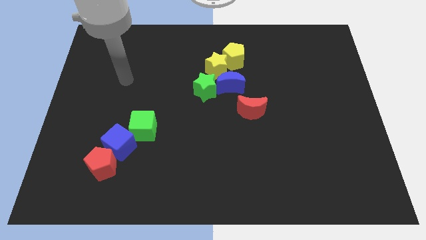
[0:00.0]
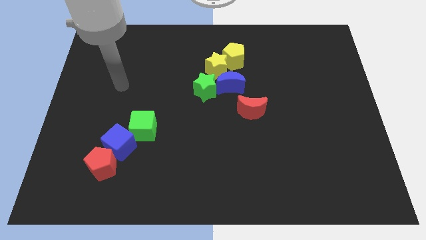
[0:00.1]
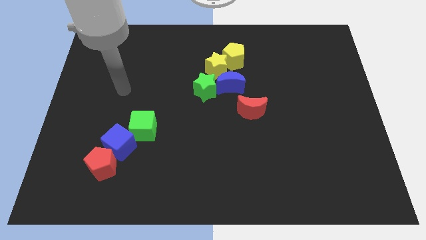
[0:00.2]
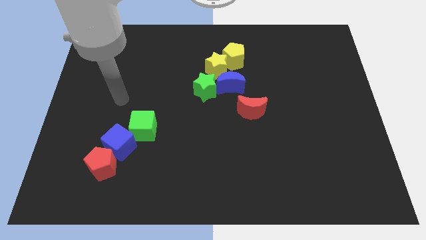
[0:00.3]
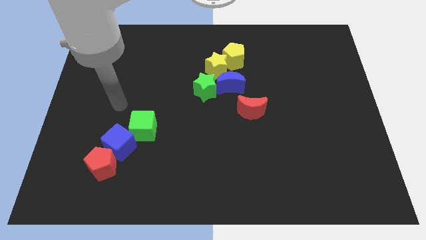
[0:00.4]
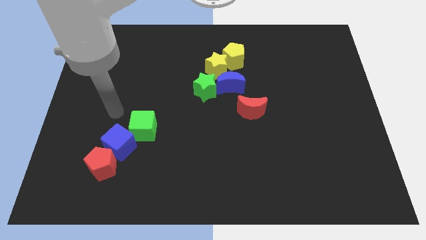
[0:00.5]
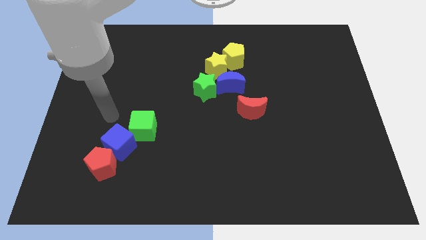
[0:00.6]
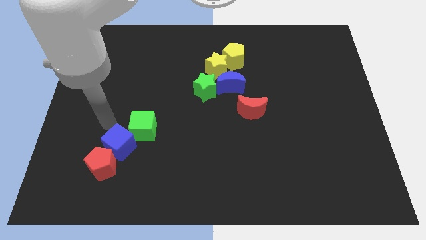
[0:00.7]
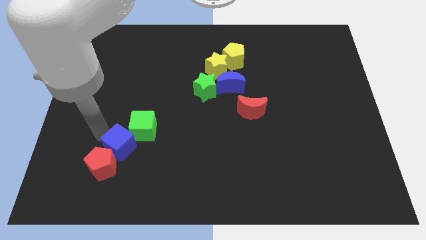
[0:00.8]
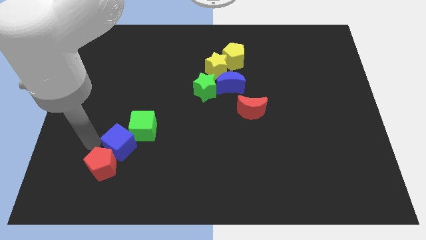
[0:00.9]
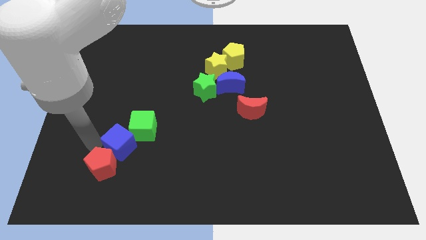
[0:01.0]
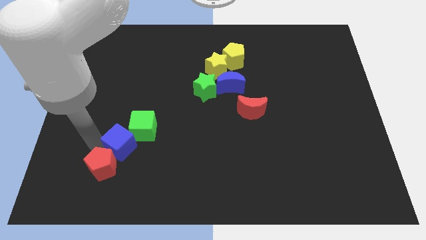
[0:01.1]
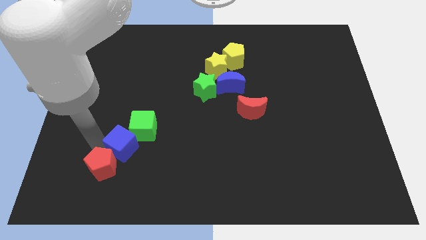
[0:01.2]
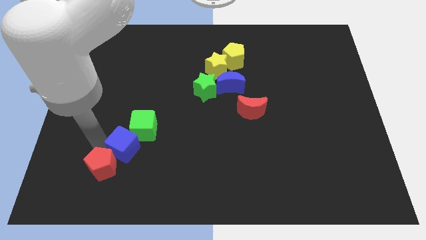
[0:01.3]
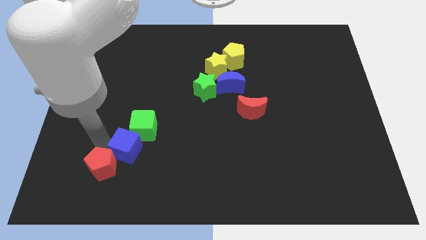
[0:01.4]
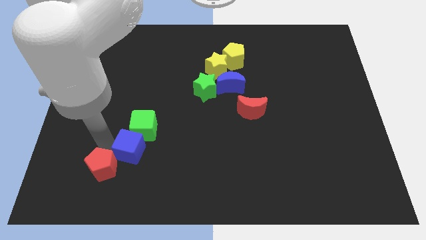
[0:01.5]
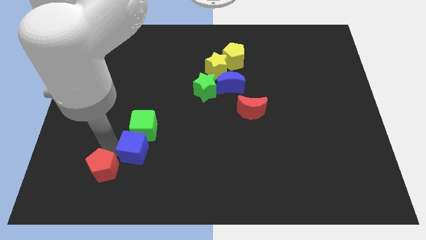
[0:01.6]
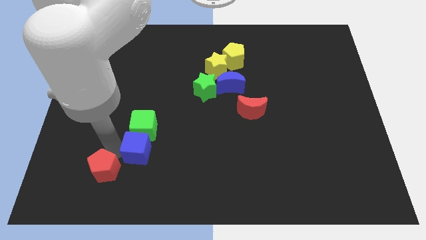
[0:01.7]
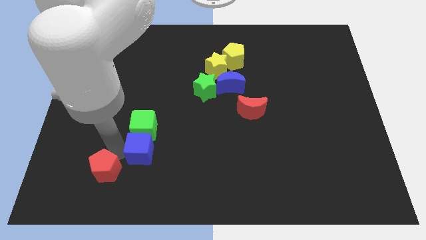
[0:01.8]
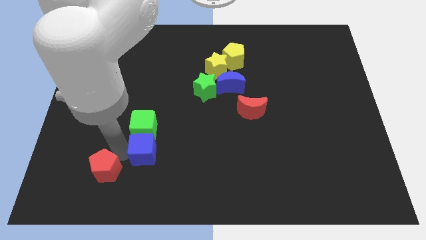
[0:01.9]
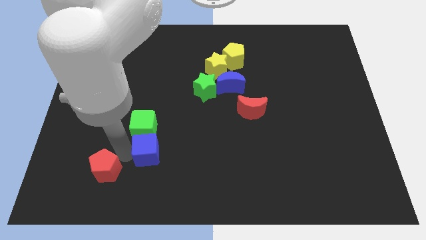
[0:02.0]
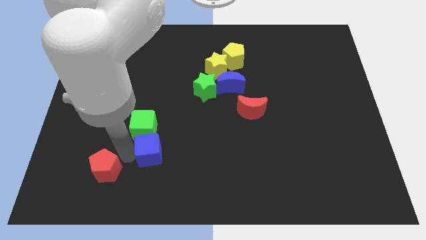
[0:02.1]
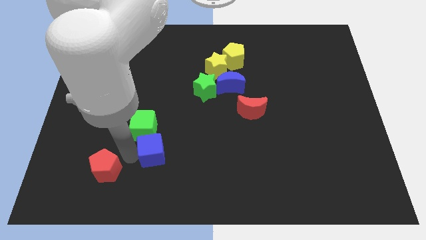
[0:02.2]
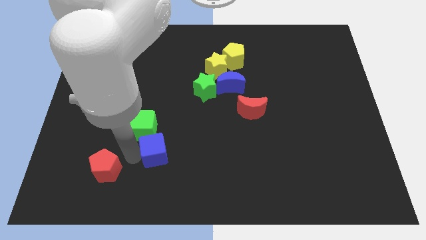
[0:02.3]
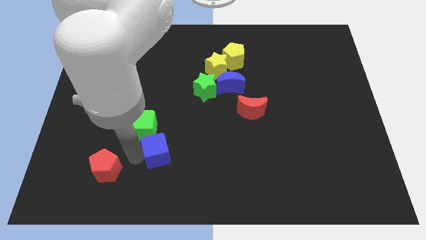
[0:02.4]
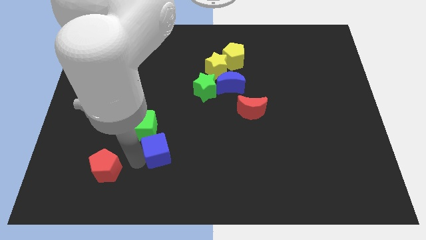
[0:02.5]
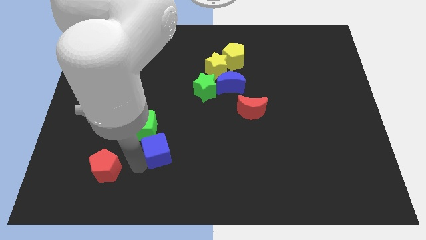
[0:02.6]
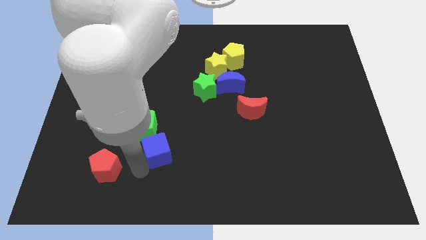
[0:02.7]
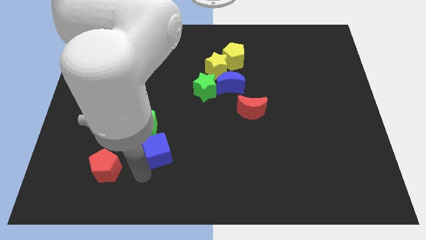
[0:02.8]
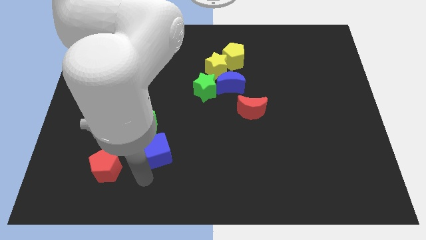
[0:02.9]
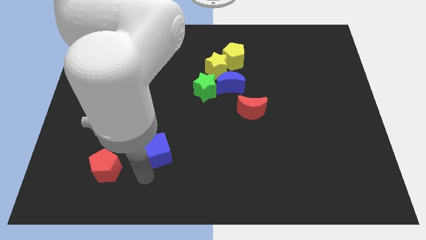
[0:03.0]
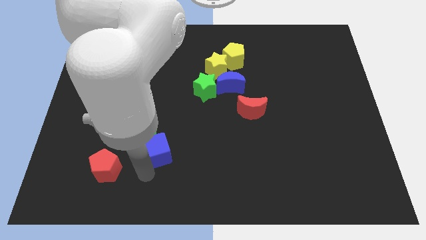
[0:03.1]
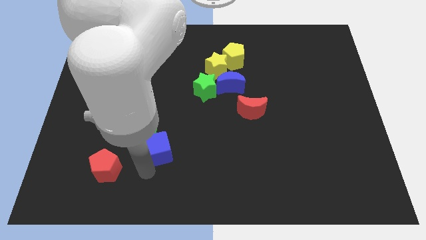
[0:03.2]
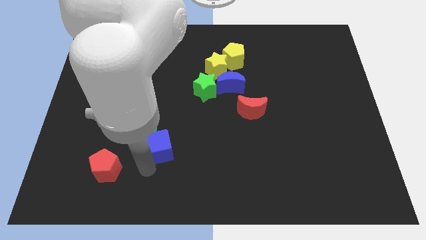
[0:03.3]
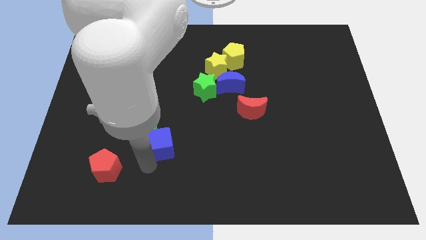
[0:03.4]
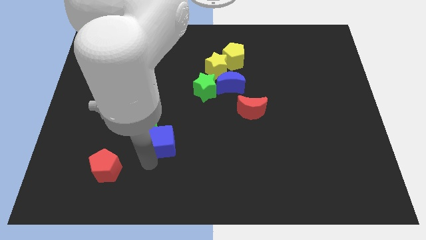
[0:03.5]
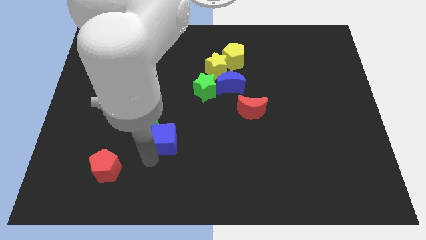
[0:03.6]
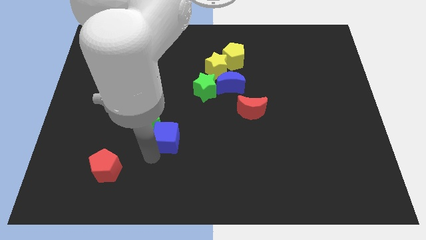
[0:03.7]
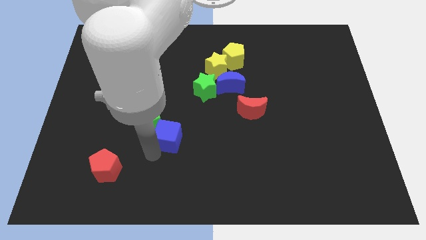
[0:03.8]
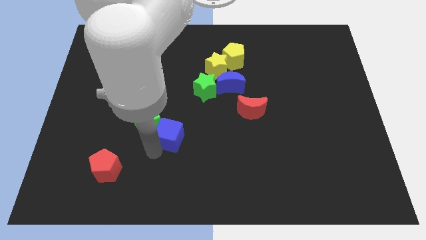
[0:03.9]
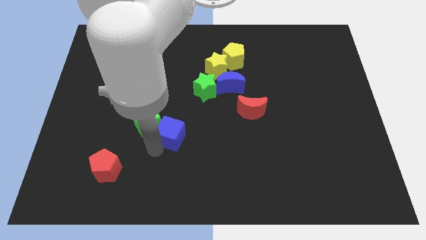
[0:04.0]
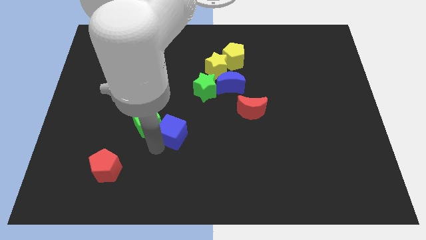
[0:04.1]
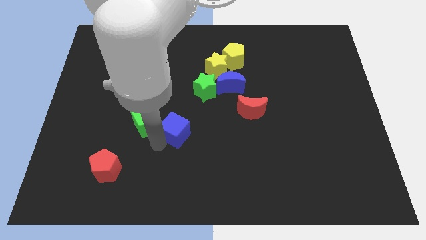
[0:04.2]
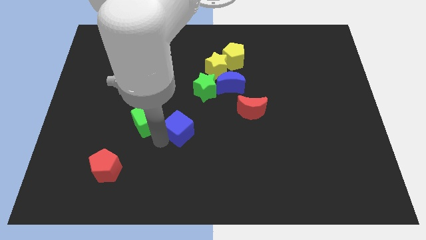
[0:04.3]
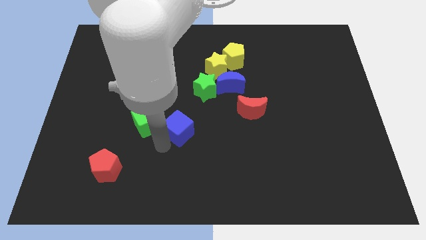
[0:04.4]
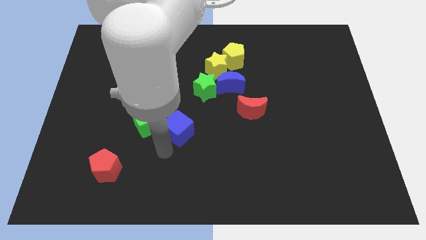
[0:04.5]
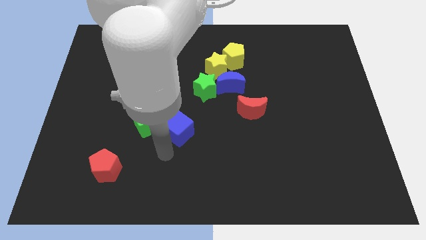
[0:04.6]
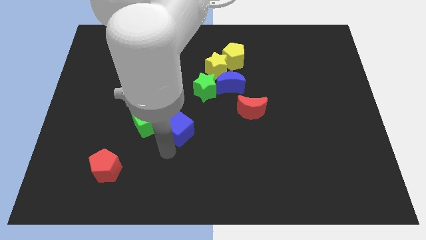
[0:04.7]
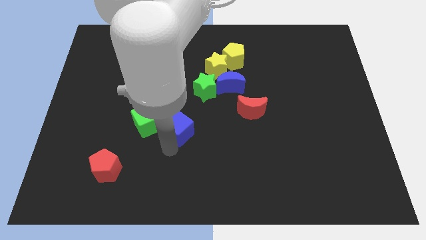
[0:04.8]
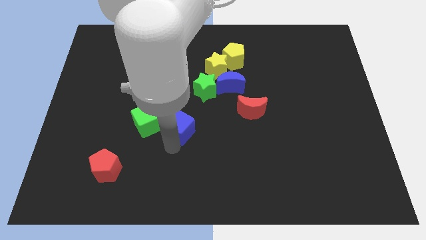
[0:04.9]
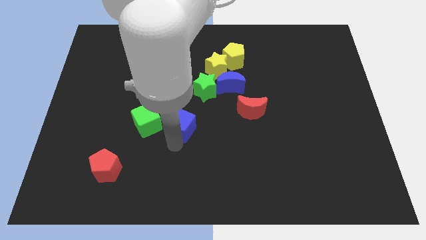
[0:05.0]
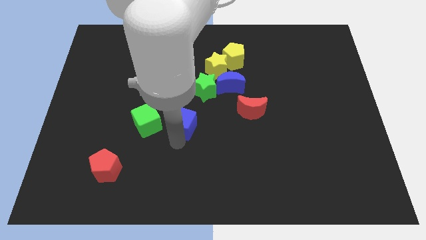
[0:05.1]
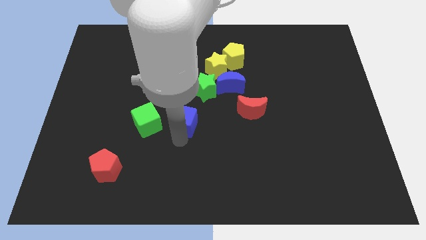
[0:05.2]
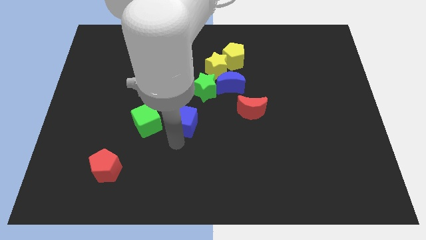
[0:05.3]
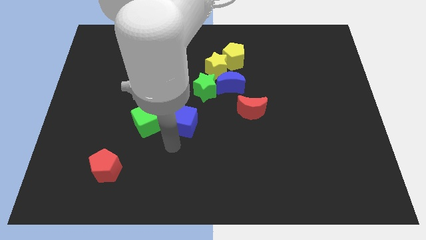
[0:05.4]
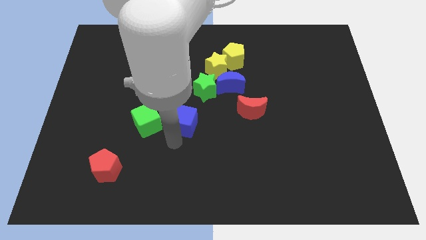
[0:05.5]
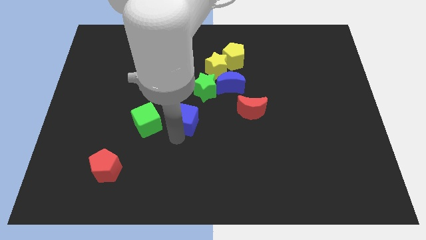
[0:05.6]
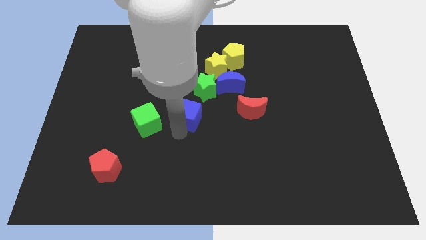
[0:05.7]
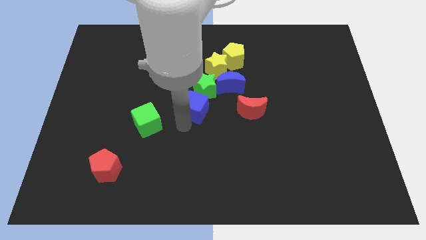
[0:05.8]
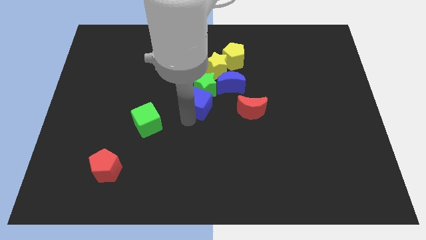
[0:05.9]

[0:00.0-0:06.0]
slide the blue cube next to the green star

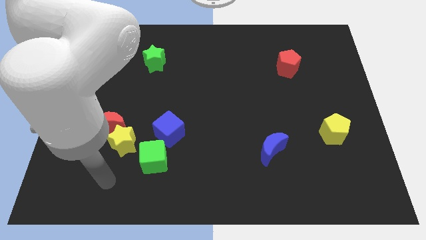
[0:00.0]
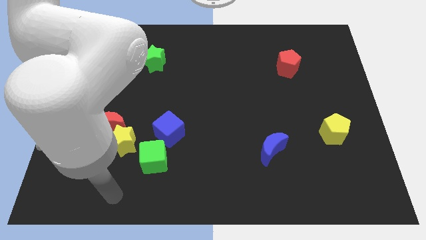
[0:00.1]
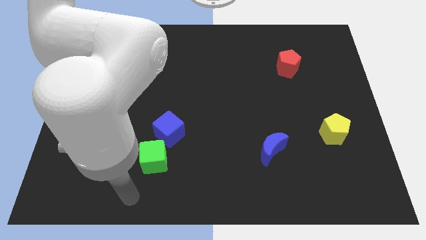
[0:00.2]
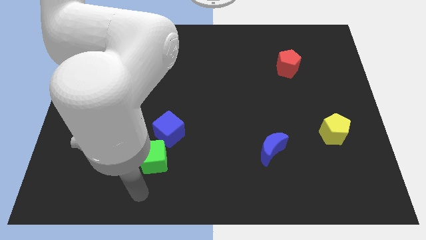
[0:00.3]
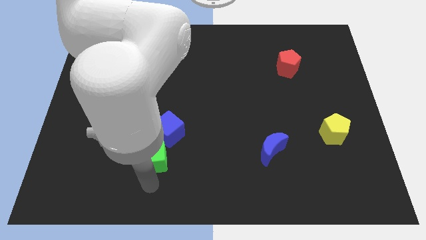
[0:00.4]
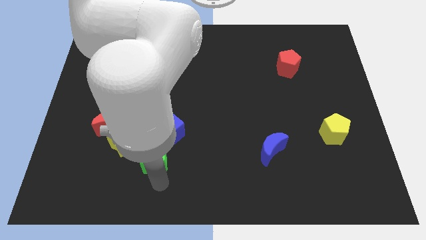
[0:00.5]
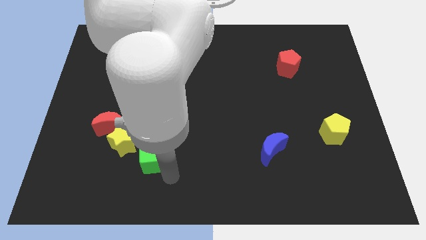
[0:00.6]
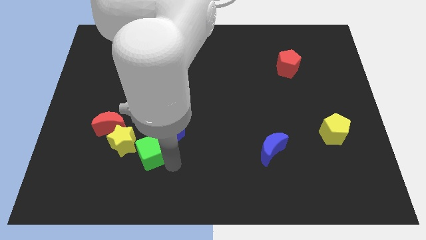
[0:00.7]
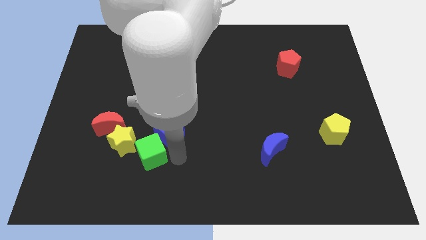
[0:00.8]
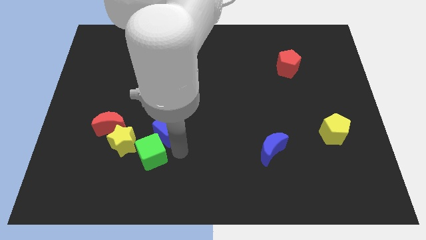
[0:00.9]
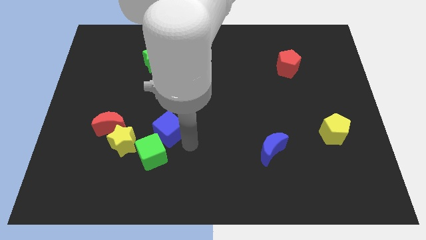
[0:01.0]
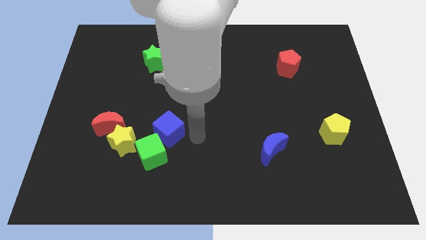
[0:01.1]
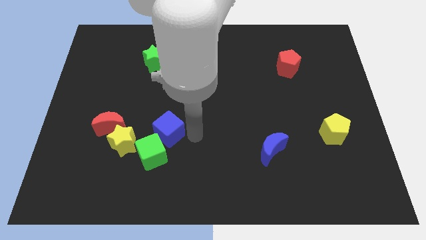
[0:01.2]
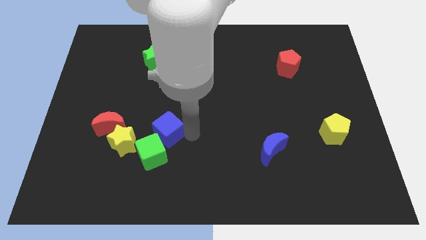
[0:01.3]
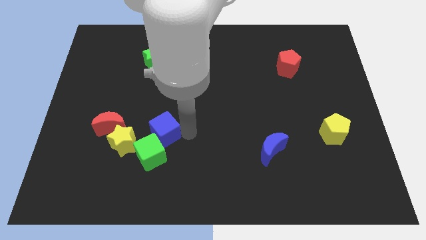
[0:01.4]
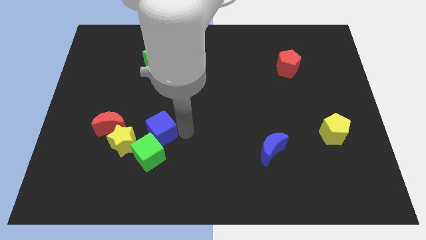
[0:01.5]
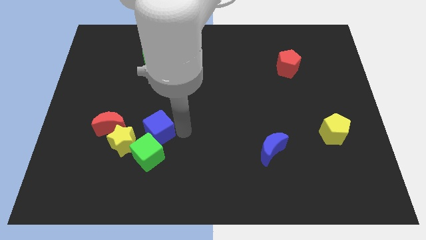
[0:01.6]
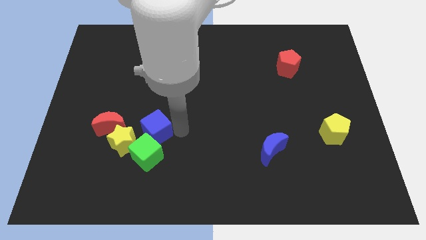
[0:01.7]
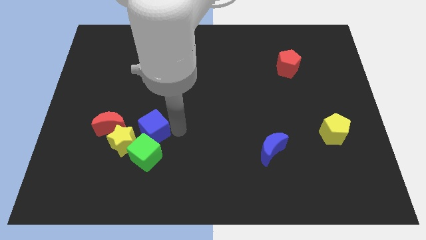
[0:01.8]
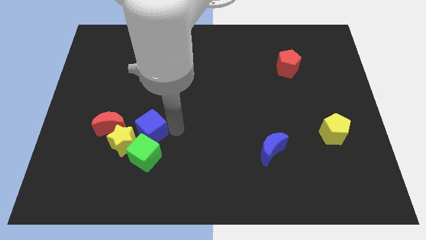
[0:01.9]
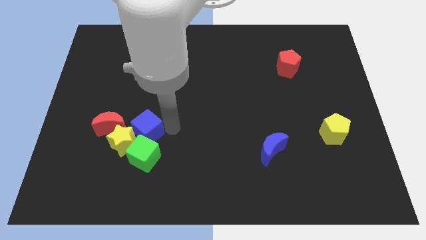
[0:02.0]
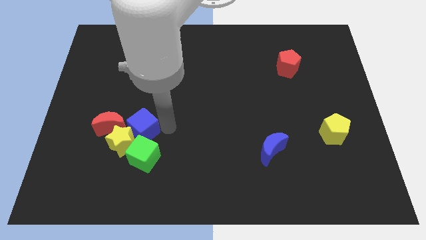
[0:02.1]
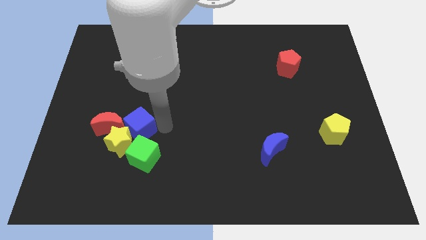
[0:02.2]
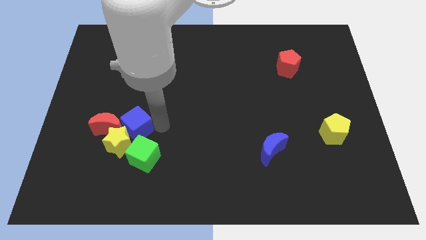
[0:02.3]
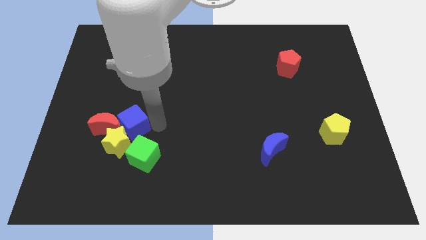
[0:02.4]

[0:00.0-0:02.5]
slide the blue cube next to the red moon
